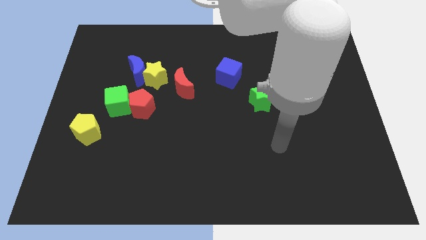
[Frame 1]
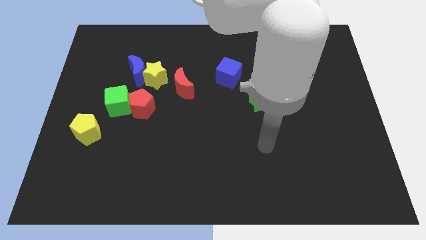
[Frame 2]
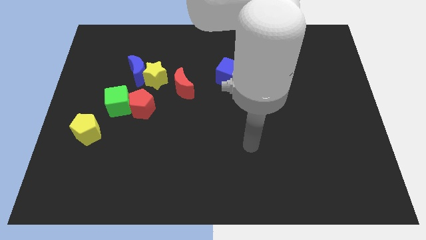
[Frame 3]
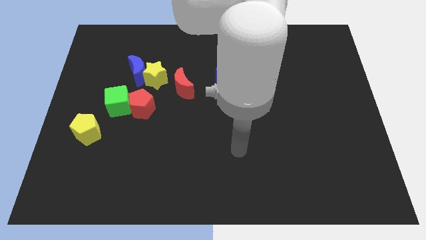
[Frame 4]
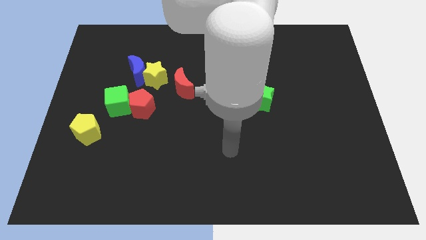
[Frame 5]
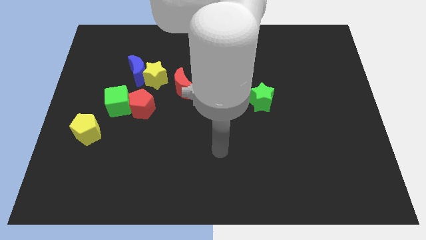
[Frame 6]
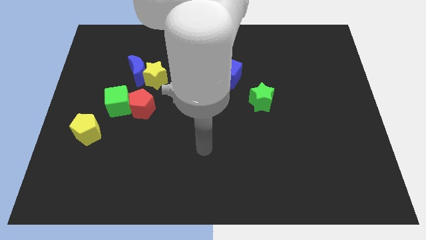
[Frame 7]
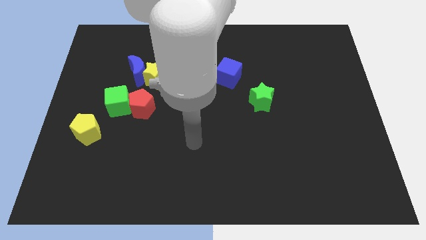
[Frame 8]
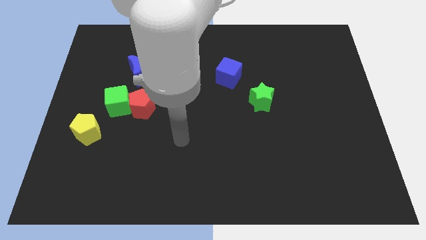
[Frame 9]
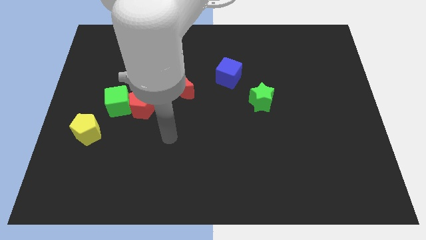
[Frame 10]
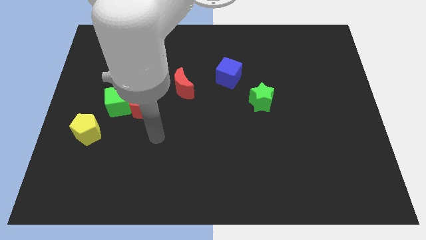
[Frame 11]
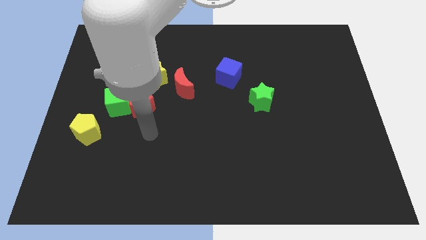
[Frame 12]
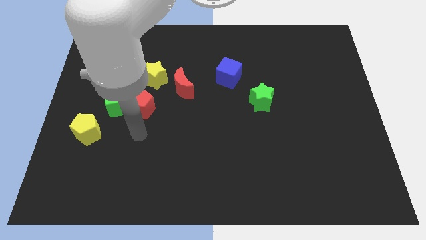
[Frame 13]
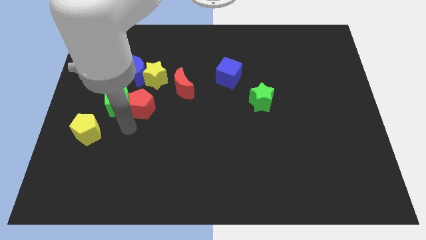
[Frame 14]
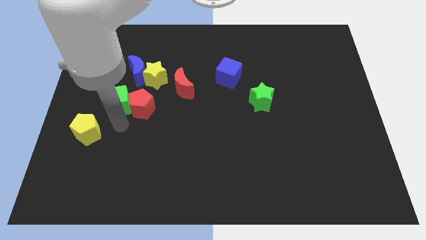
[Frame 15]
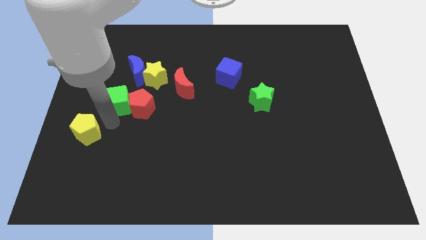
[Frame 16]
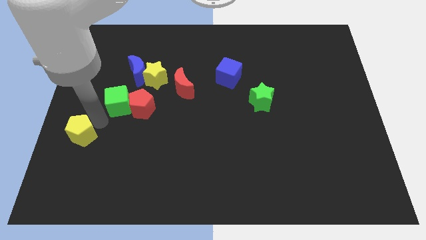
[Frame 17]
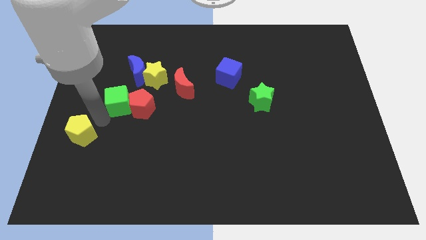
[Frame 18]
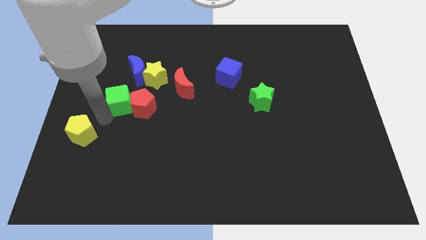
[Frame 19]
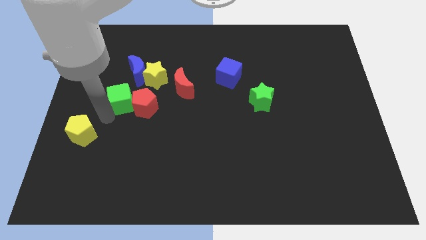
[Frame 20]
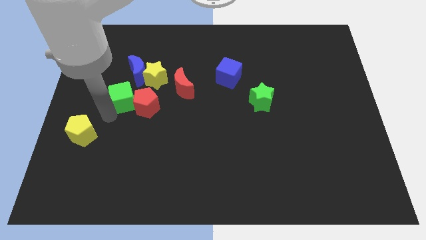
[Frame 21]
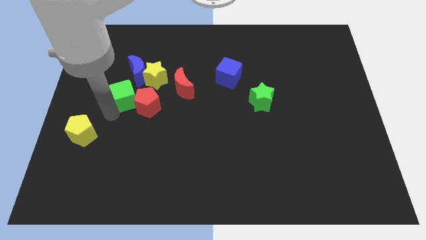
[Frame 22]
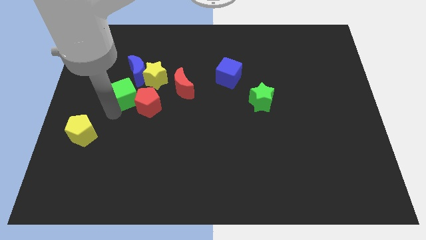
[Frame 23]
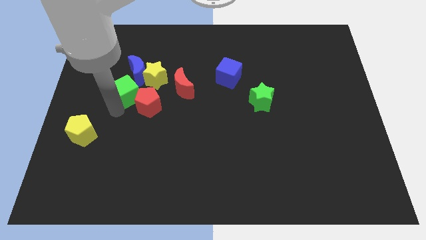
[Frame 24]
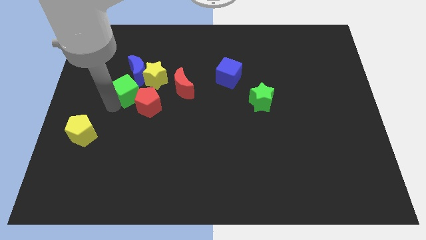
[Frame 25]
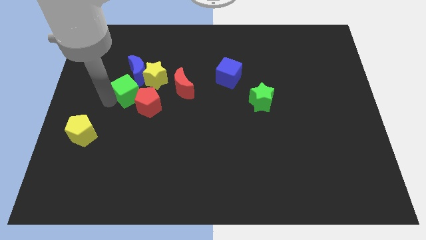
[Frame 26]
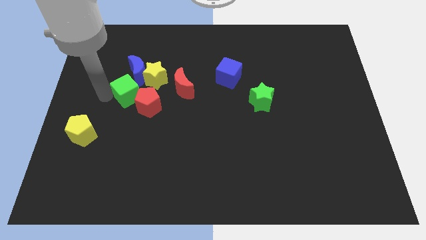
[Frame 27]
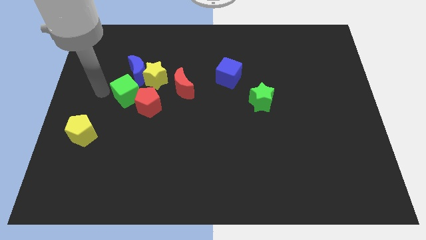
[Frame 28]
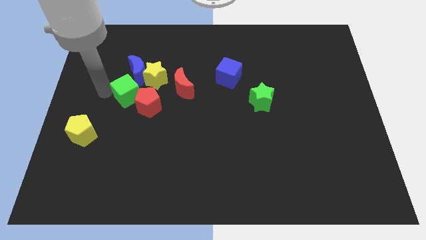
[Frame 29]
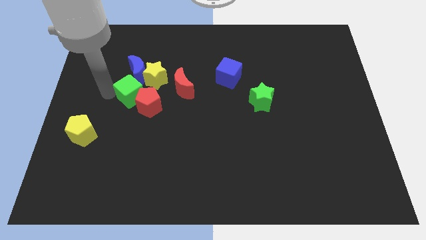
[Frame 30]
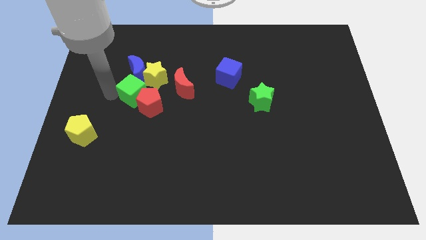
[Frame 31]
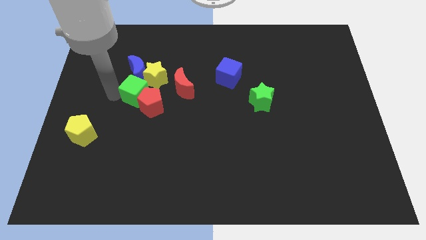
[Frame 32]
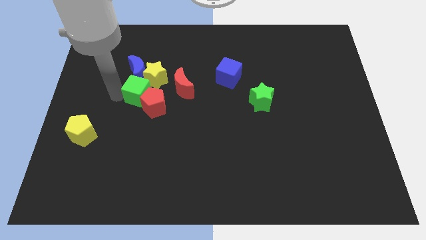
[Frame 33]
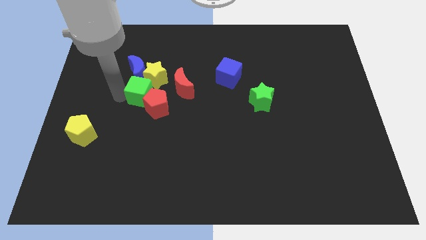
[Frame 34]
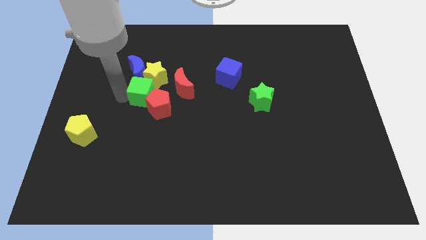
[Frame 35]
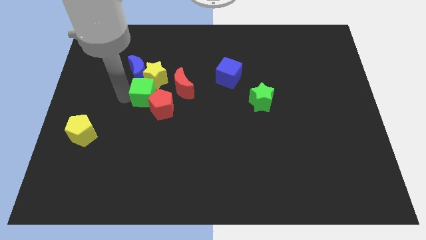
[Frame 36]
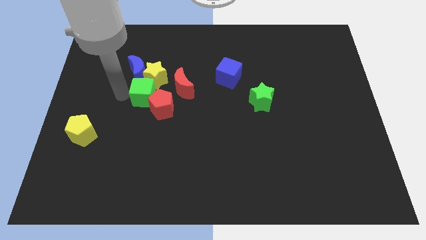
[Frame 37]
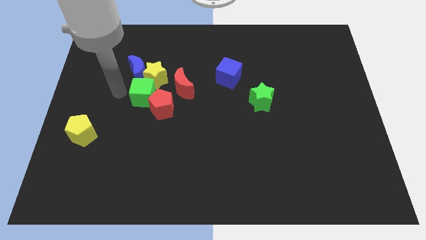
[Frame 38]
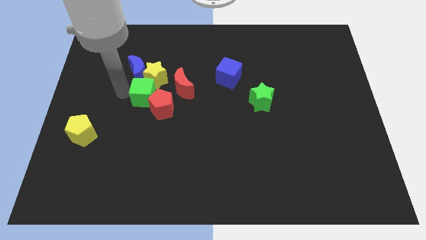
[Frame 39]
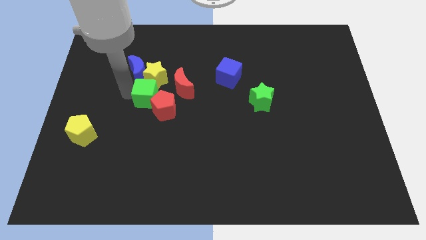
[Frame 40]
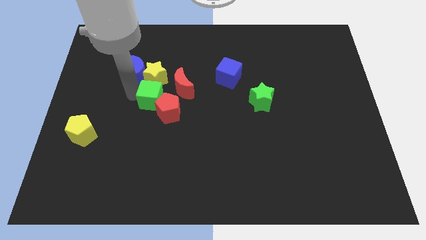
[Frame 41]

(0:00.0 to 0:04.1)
push the green cube right a bit

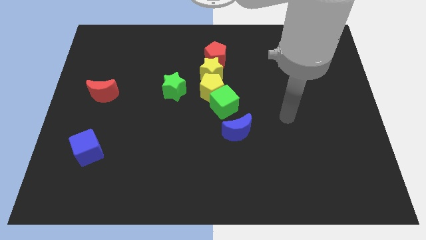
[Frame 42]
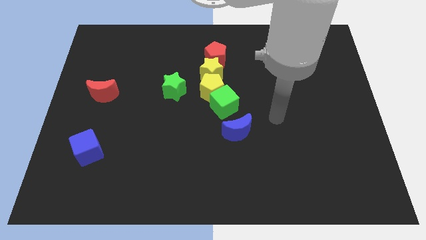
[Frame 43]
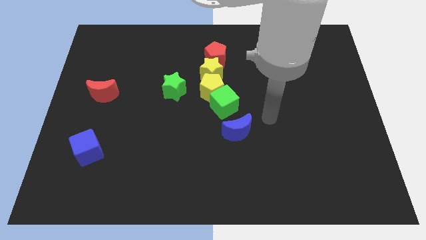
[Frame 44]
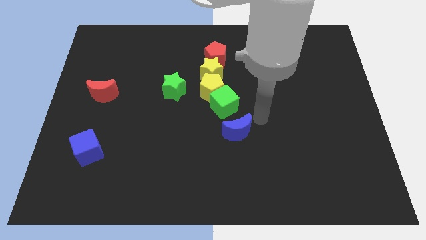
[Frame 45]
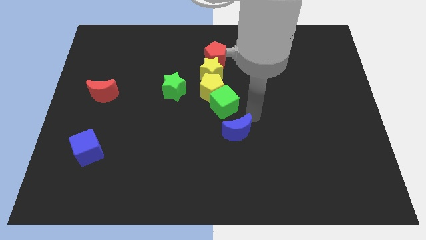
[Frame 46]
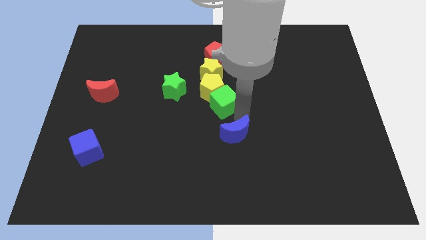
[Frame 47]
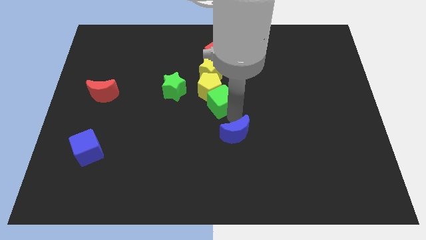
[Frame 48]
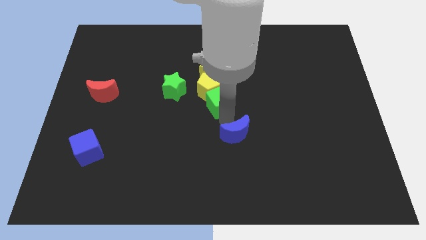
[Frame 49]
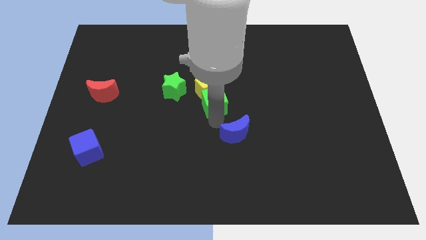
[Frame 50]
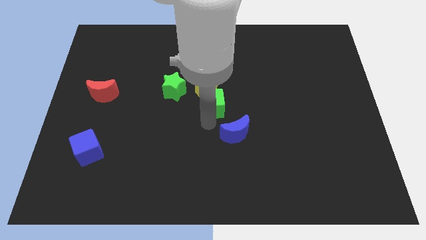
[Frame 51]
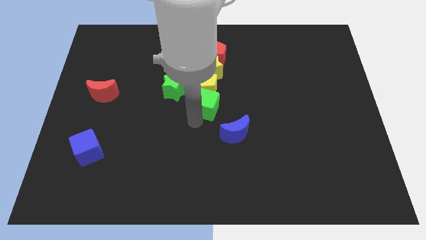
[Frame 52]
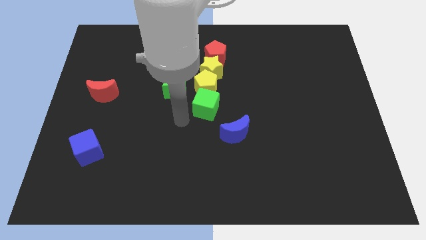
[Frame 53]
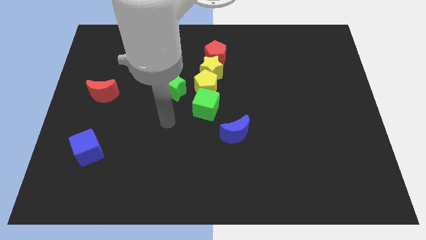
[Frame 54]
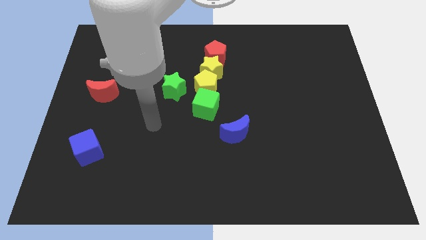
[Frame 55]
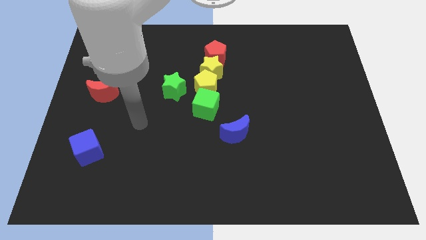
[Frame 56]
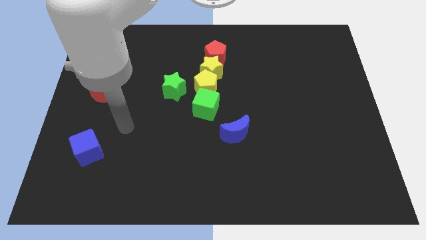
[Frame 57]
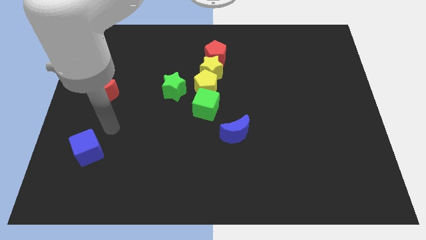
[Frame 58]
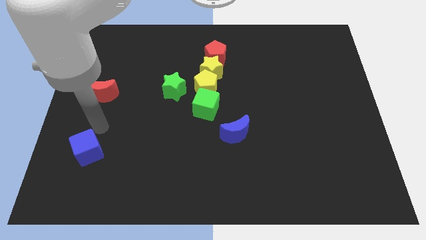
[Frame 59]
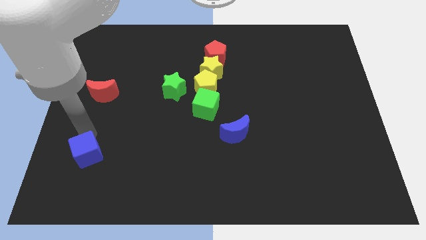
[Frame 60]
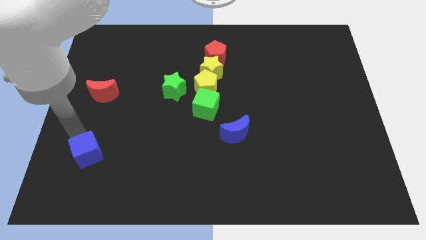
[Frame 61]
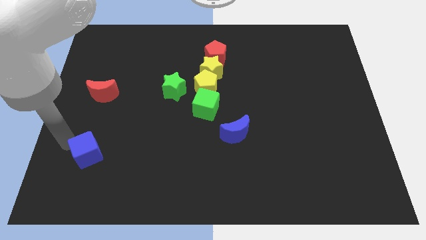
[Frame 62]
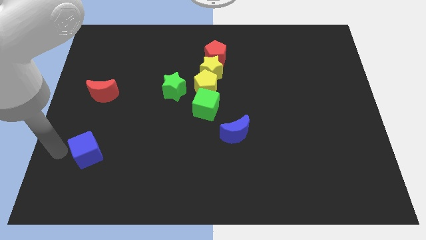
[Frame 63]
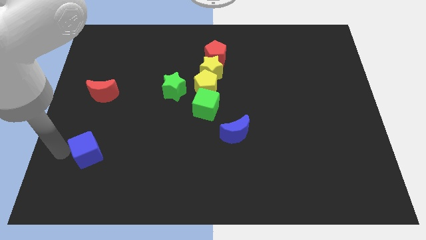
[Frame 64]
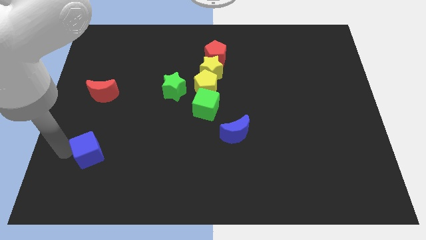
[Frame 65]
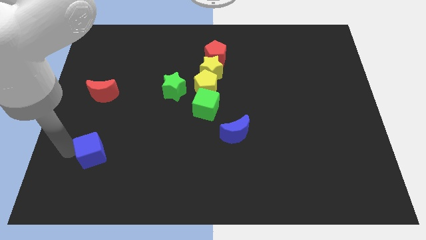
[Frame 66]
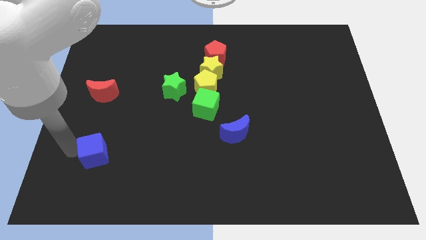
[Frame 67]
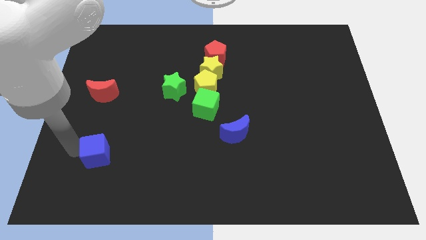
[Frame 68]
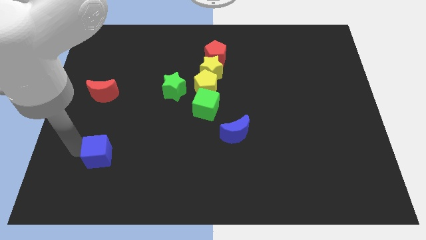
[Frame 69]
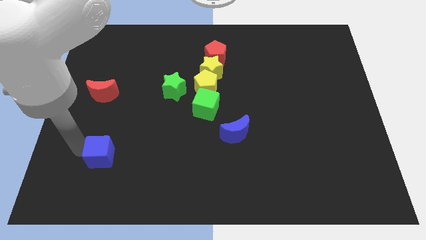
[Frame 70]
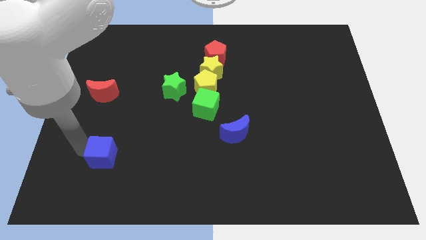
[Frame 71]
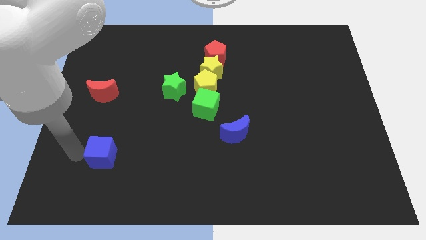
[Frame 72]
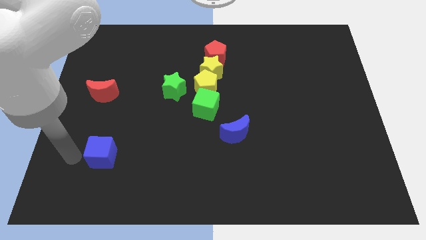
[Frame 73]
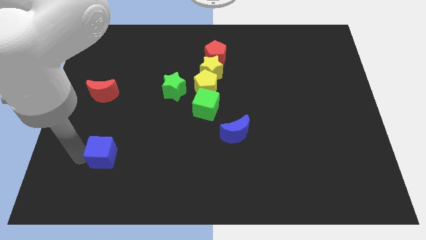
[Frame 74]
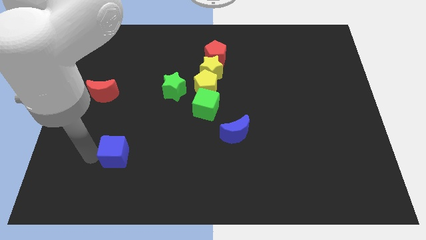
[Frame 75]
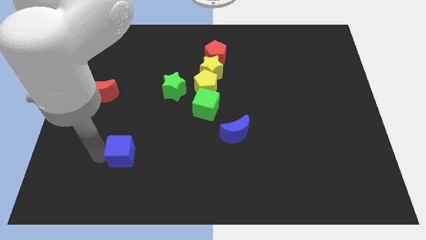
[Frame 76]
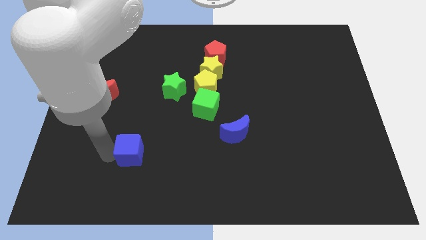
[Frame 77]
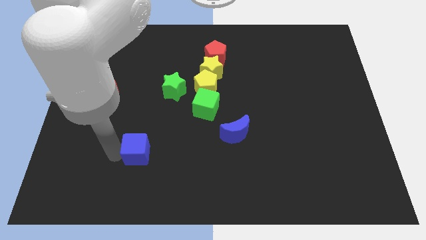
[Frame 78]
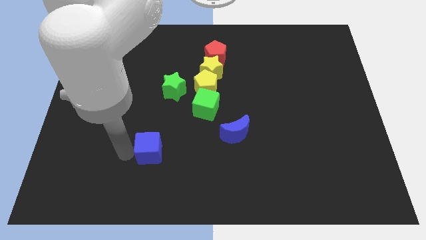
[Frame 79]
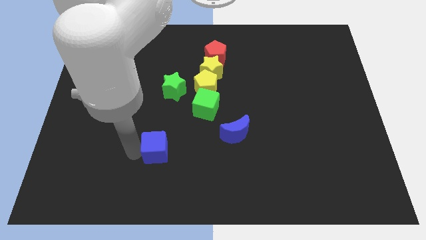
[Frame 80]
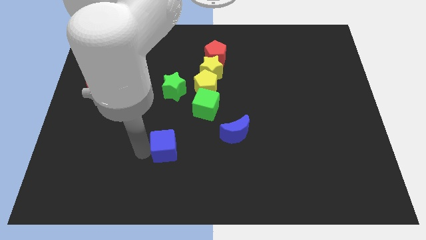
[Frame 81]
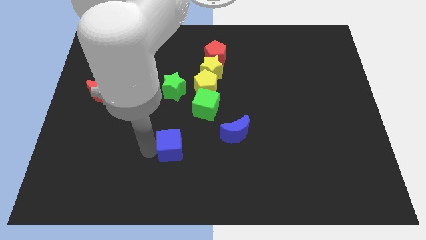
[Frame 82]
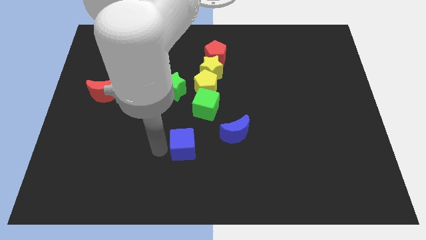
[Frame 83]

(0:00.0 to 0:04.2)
push the blue cube to the right
